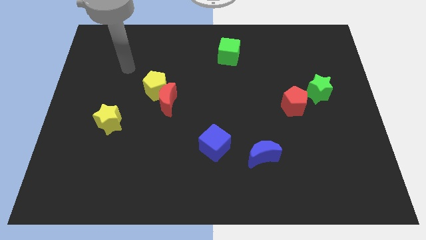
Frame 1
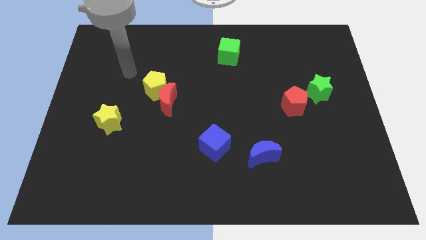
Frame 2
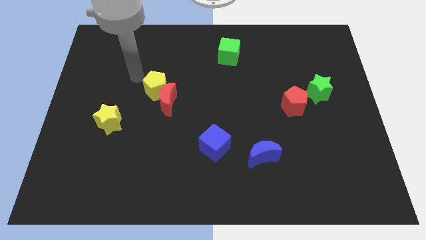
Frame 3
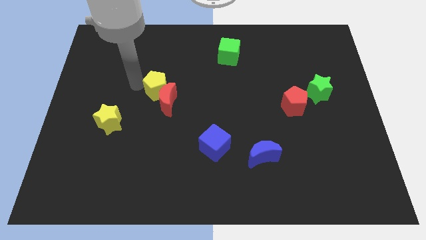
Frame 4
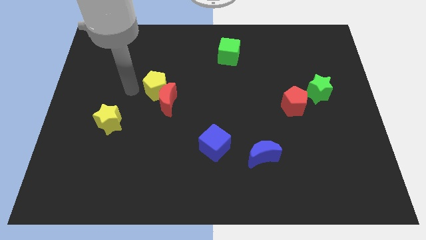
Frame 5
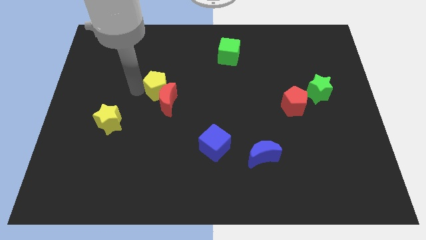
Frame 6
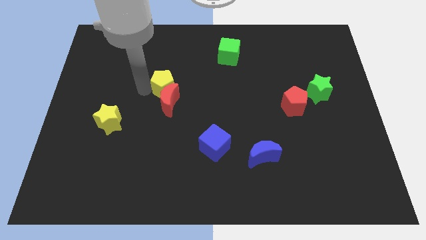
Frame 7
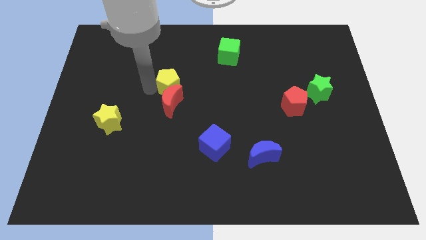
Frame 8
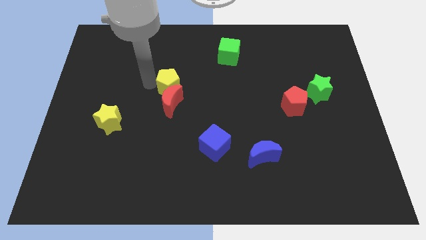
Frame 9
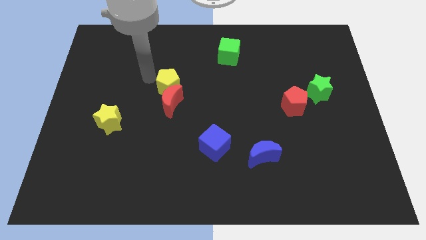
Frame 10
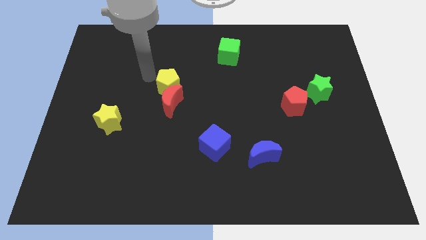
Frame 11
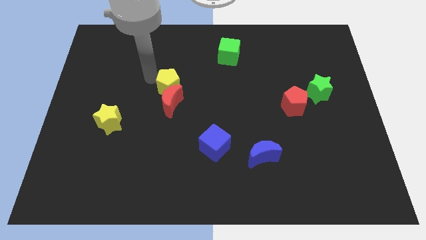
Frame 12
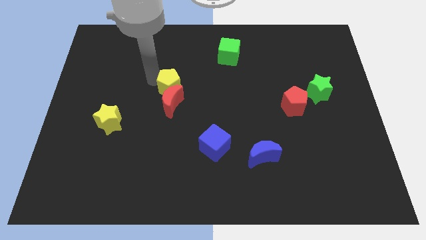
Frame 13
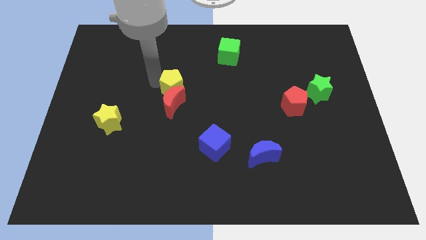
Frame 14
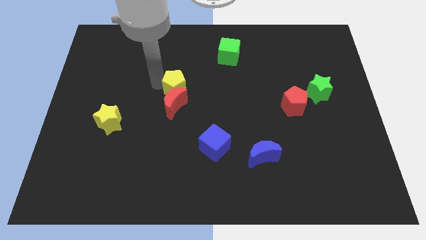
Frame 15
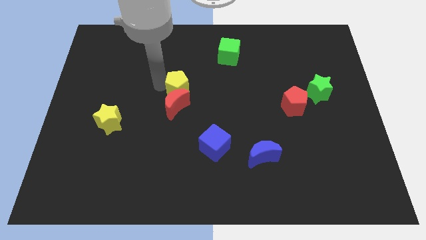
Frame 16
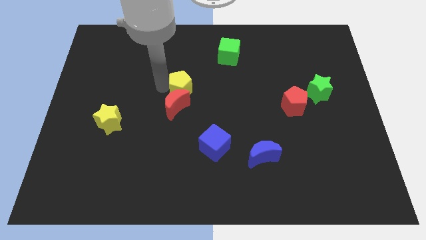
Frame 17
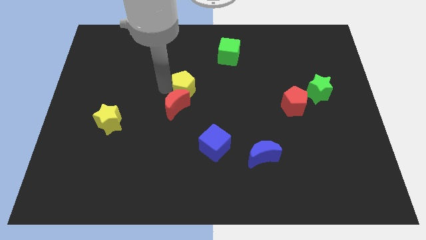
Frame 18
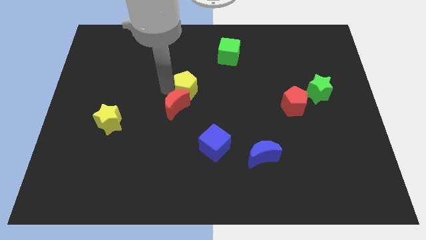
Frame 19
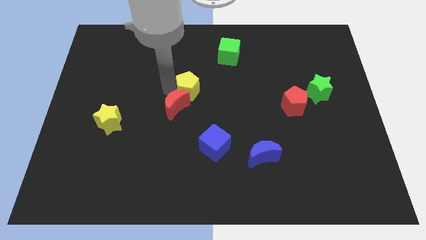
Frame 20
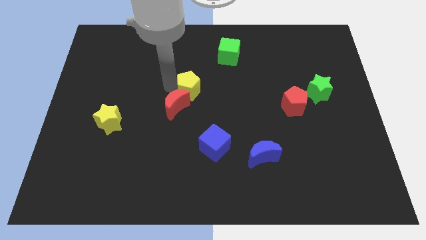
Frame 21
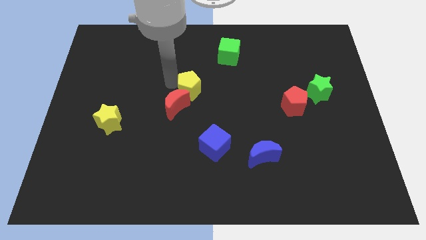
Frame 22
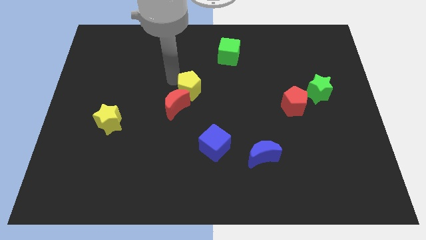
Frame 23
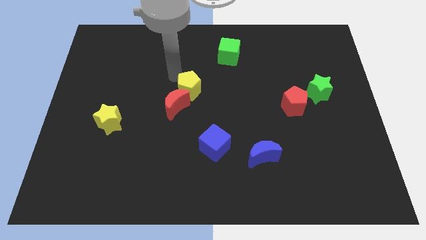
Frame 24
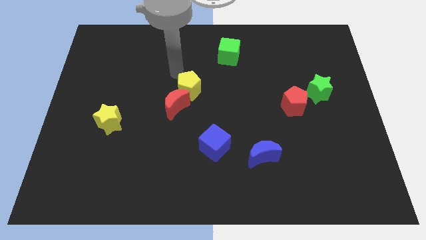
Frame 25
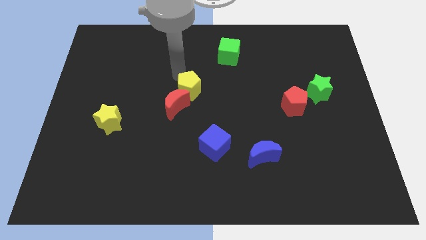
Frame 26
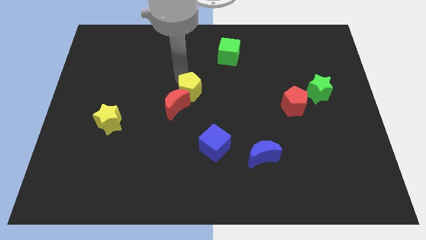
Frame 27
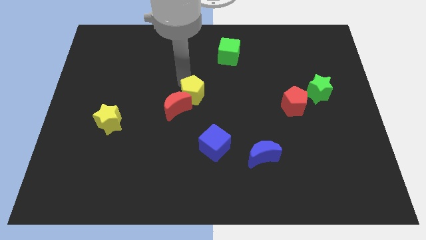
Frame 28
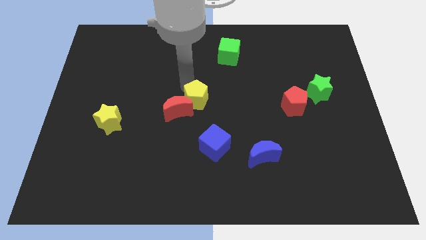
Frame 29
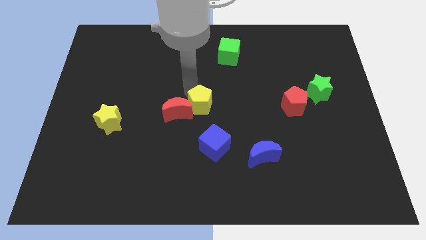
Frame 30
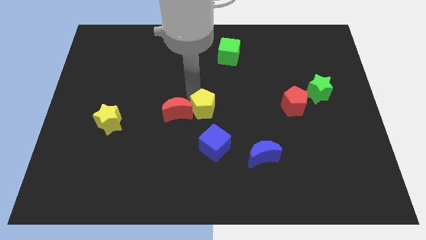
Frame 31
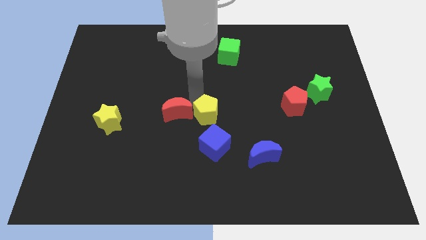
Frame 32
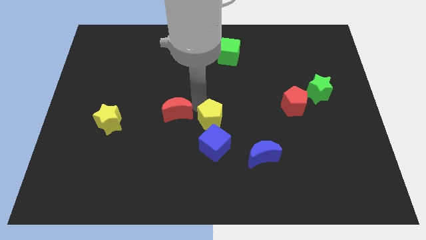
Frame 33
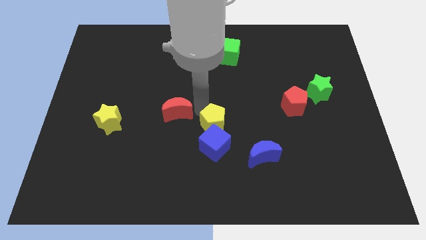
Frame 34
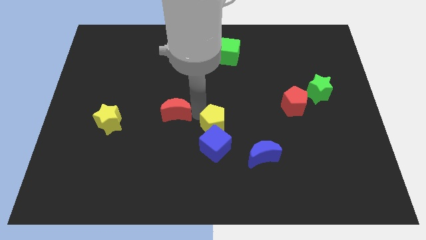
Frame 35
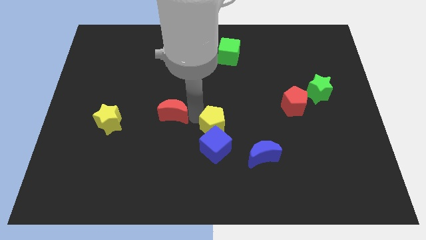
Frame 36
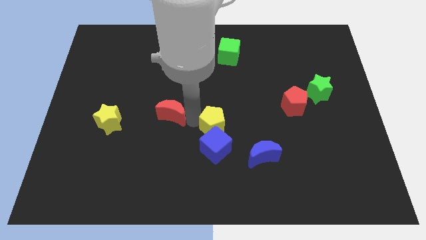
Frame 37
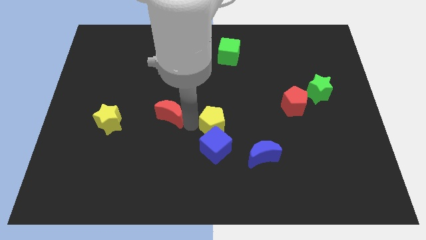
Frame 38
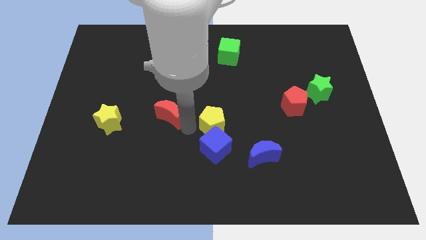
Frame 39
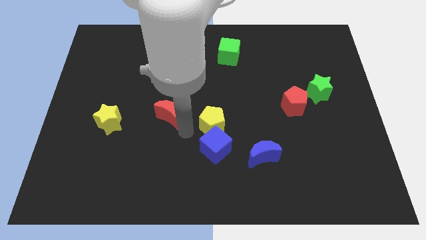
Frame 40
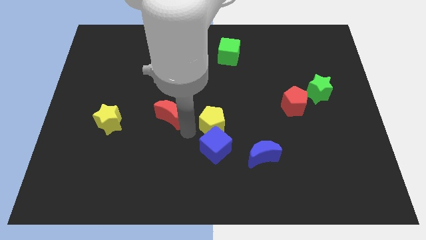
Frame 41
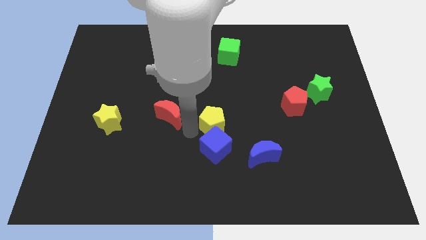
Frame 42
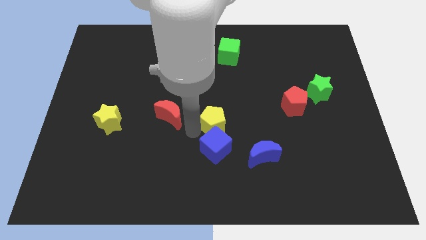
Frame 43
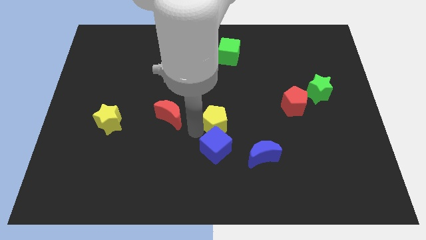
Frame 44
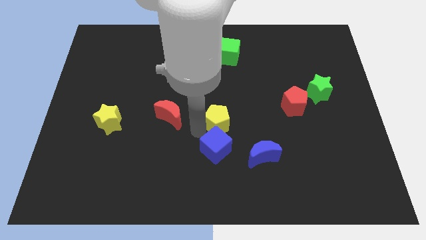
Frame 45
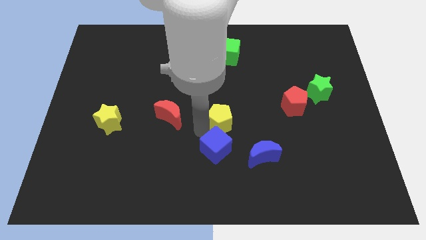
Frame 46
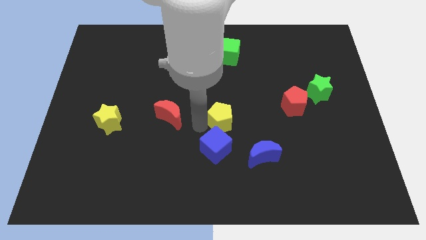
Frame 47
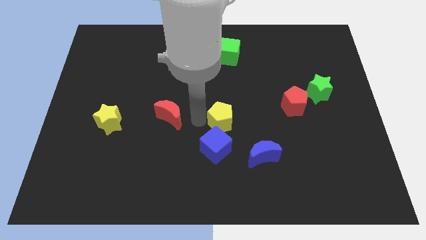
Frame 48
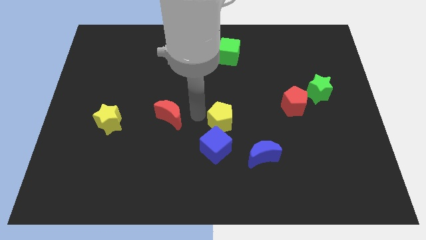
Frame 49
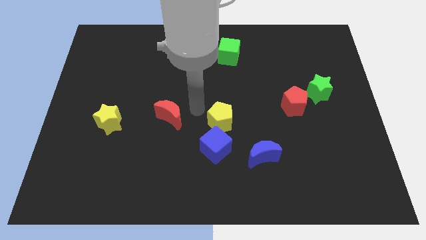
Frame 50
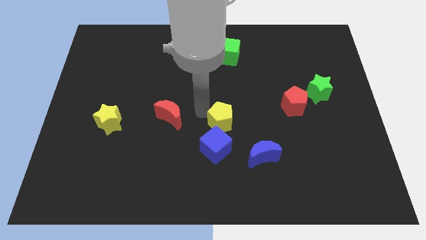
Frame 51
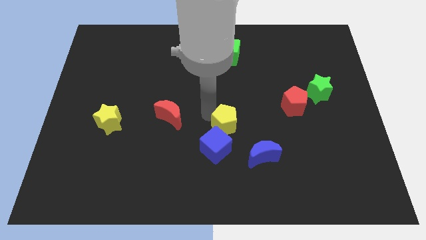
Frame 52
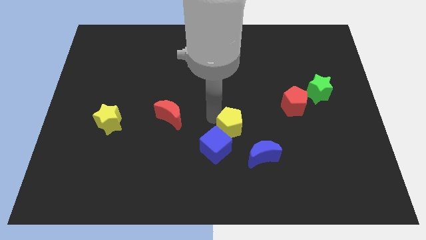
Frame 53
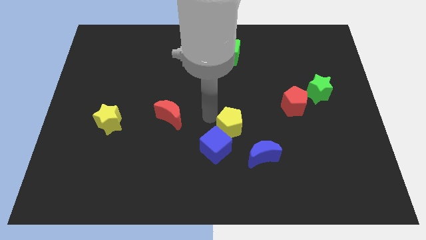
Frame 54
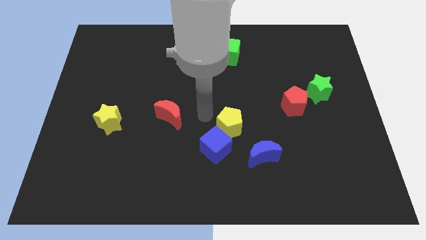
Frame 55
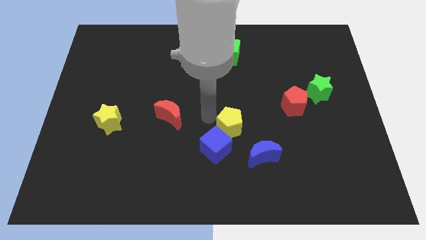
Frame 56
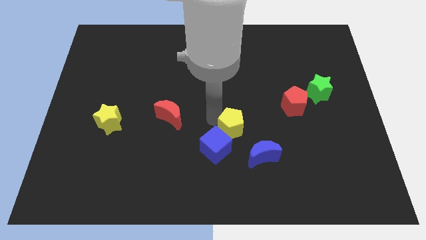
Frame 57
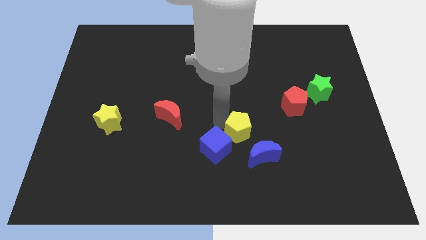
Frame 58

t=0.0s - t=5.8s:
move the yellow pentagon to the right side of the blue cube

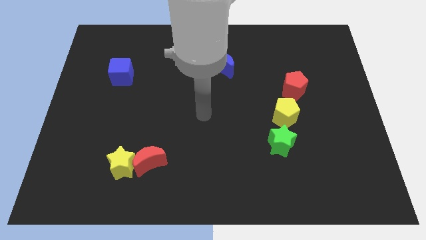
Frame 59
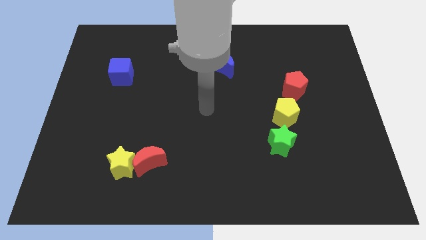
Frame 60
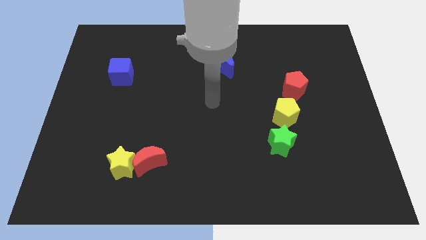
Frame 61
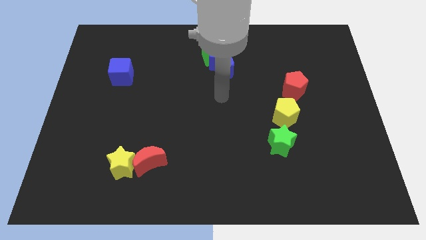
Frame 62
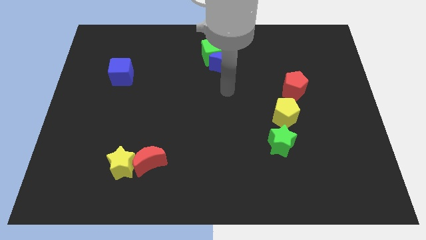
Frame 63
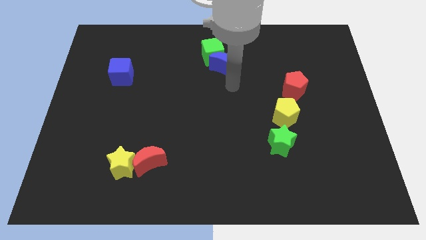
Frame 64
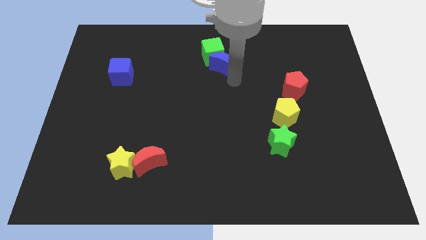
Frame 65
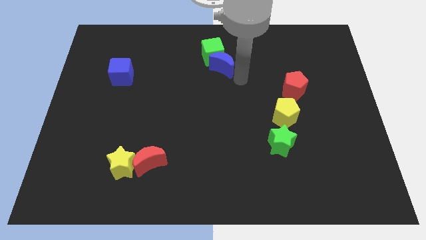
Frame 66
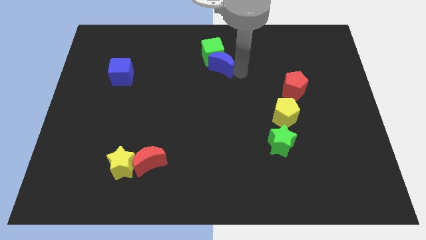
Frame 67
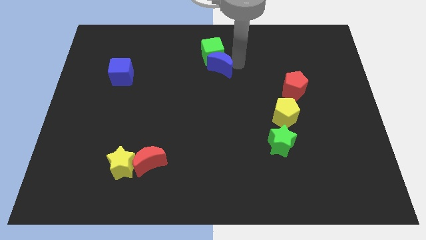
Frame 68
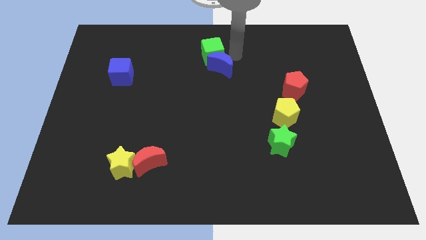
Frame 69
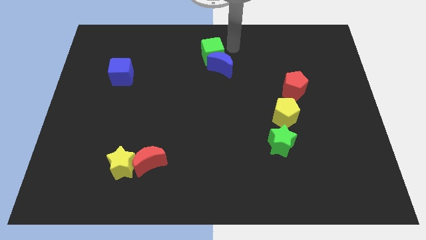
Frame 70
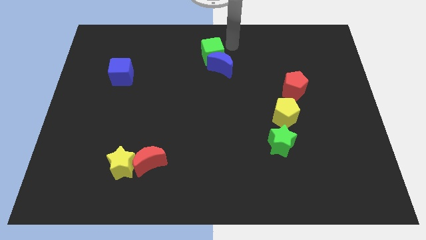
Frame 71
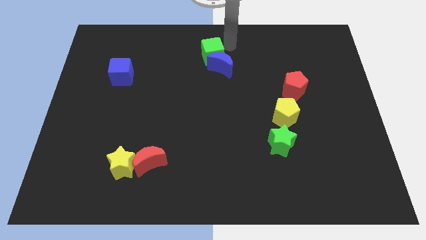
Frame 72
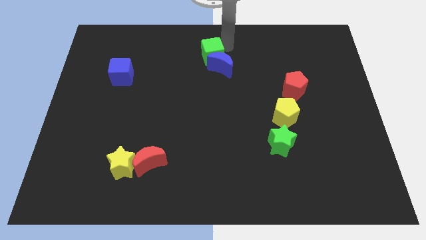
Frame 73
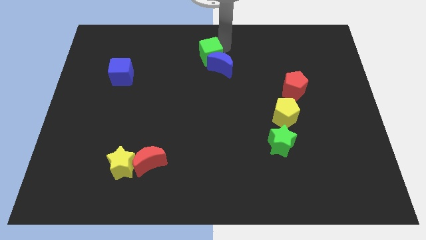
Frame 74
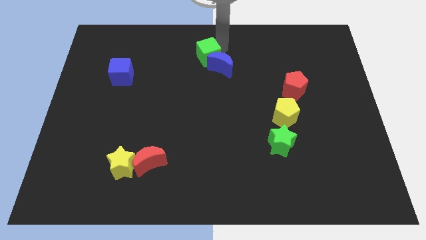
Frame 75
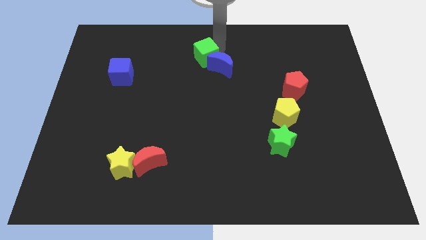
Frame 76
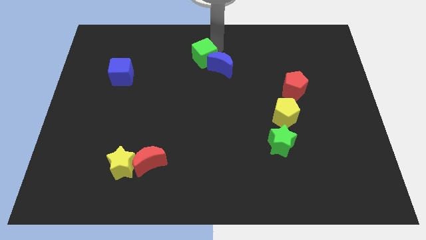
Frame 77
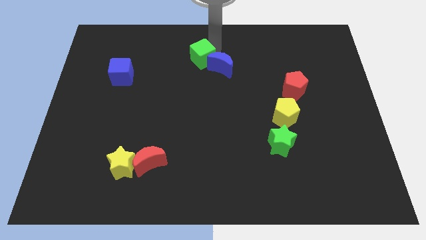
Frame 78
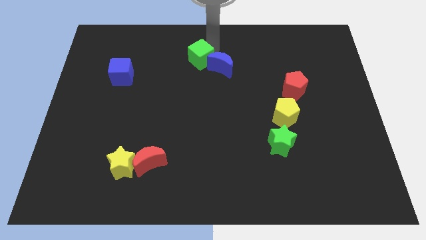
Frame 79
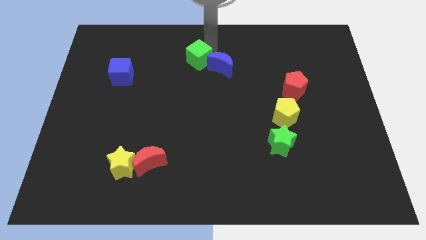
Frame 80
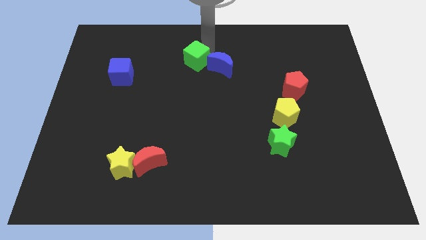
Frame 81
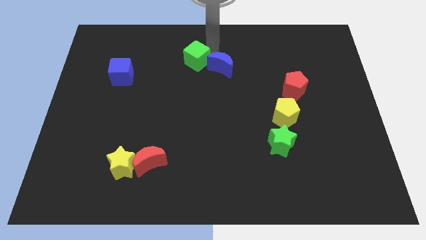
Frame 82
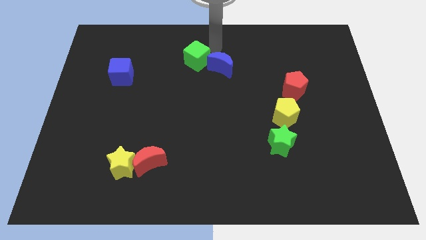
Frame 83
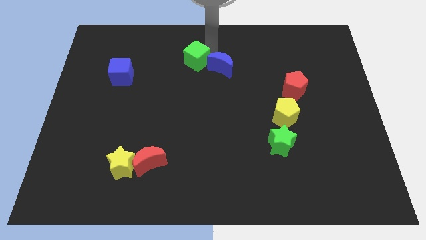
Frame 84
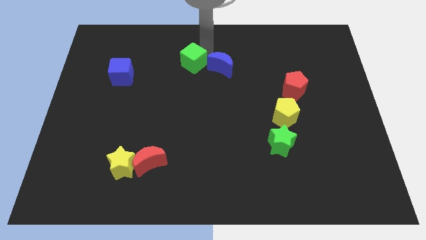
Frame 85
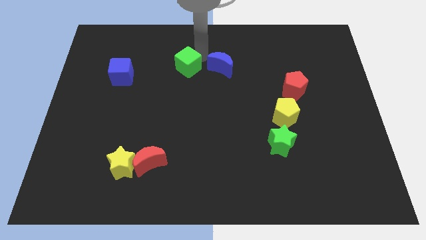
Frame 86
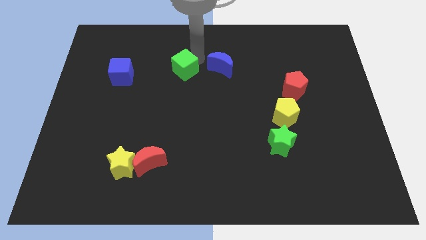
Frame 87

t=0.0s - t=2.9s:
move the green cube to the right of the blue cube
